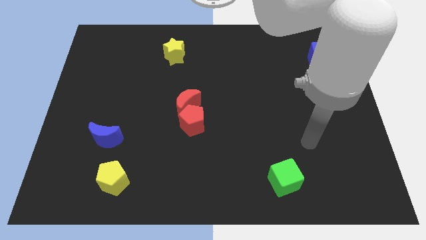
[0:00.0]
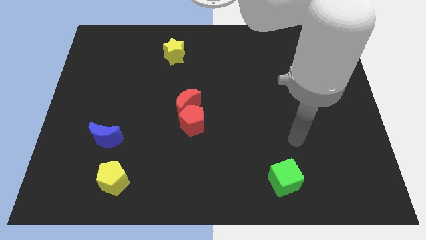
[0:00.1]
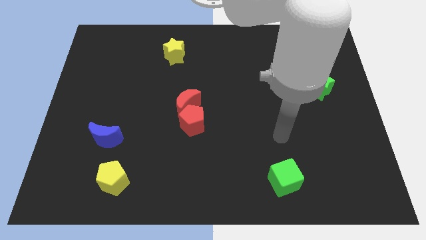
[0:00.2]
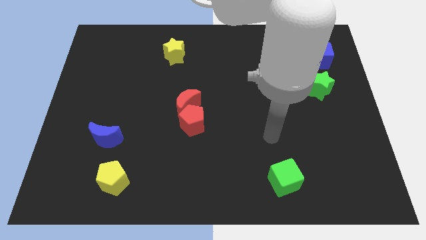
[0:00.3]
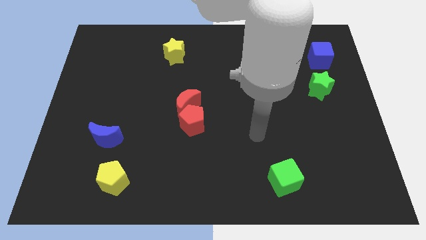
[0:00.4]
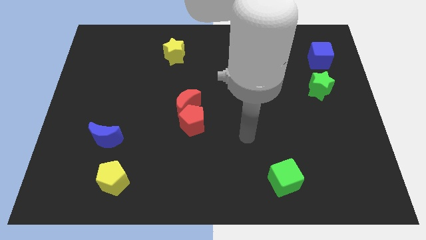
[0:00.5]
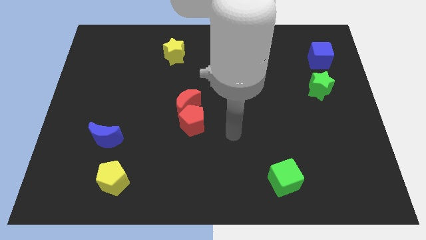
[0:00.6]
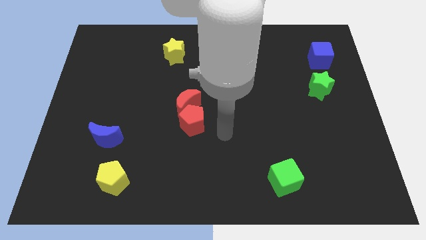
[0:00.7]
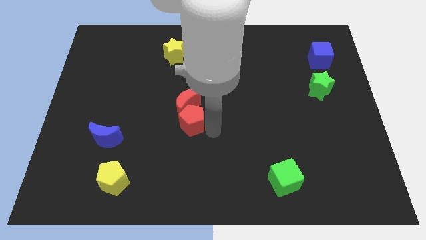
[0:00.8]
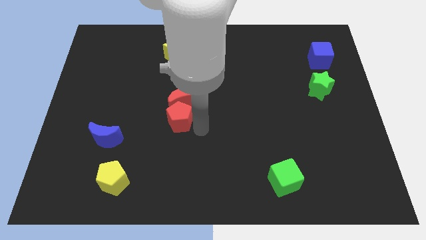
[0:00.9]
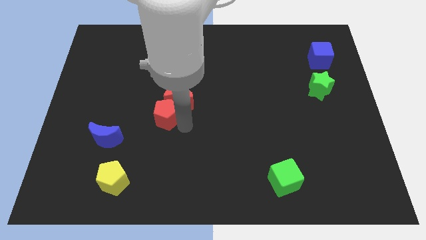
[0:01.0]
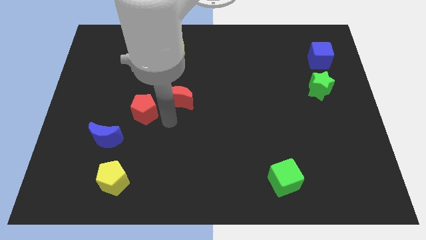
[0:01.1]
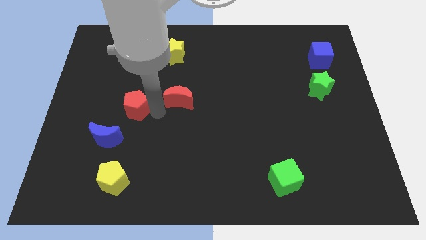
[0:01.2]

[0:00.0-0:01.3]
move the red moon away from the red pentagon

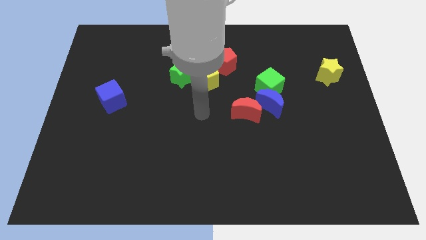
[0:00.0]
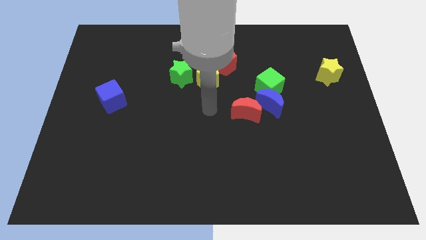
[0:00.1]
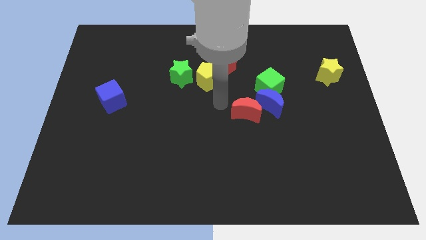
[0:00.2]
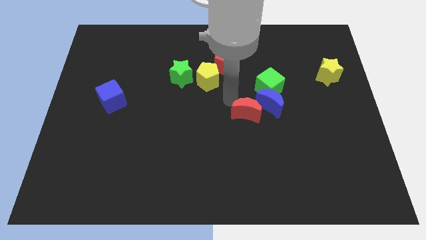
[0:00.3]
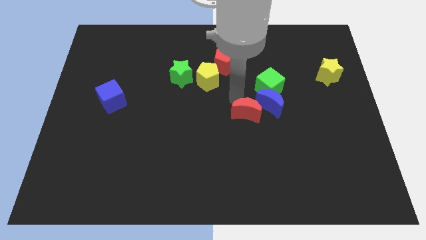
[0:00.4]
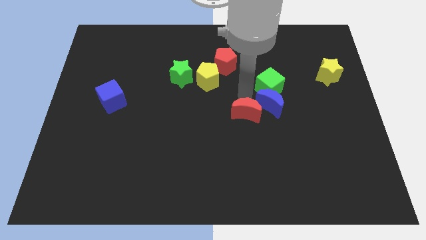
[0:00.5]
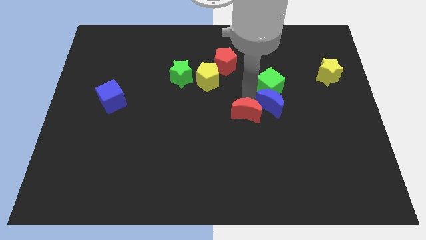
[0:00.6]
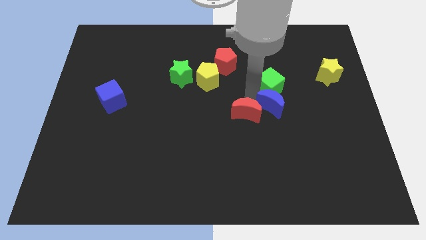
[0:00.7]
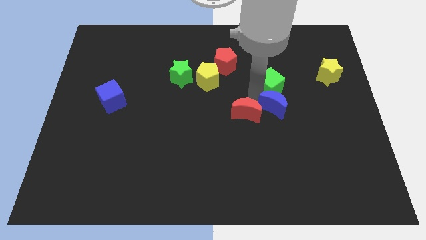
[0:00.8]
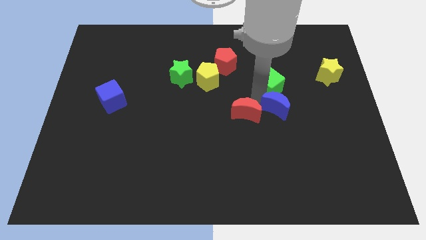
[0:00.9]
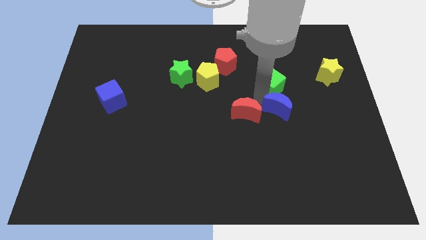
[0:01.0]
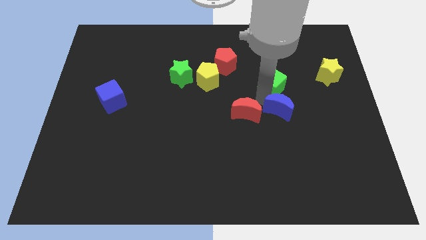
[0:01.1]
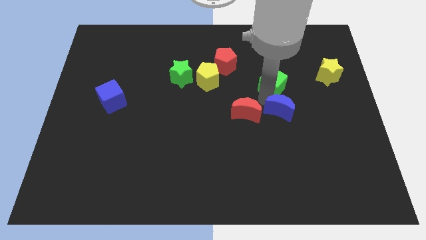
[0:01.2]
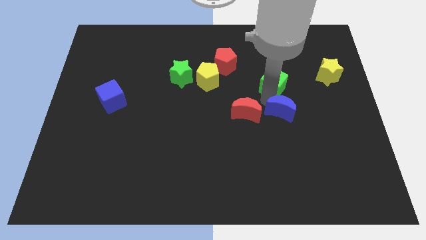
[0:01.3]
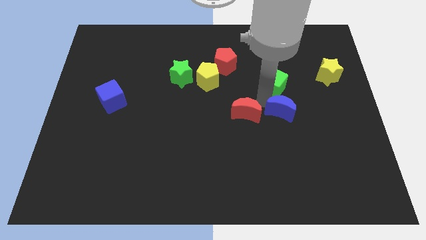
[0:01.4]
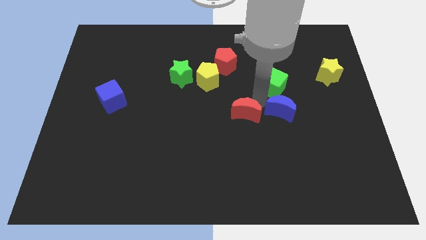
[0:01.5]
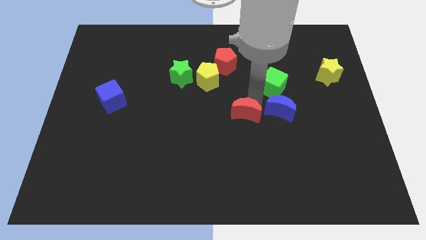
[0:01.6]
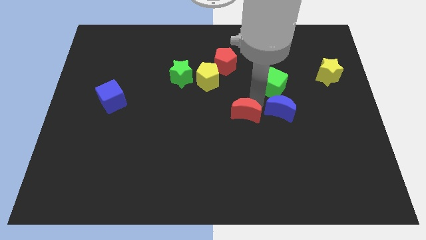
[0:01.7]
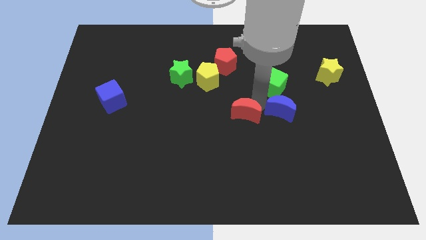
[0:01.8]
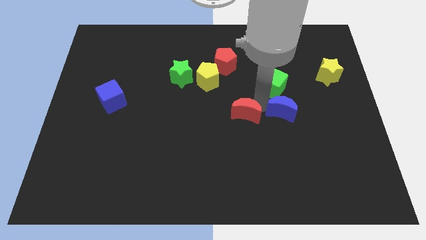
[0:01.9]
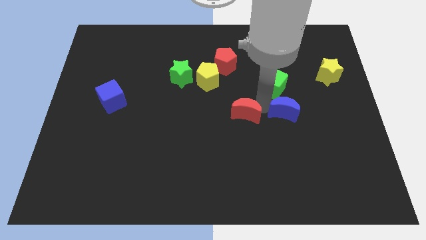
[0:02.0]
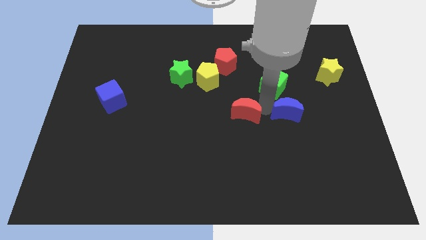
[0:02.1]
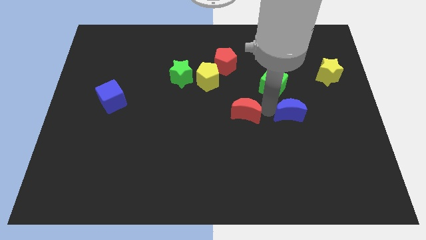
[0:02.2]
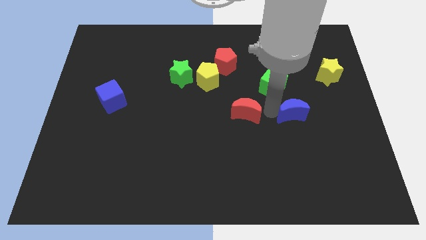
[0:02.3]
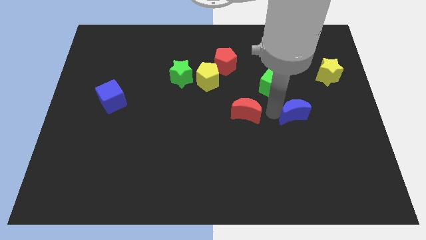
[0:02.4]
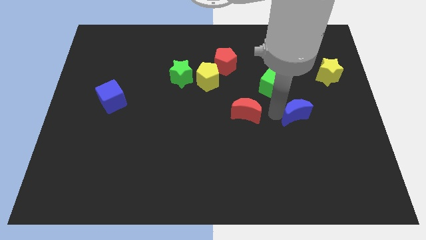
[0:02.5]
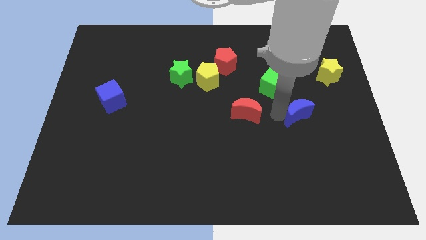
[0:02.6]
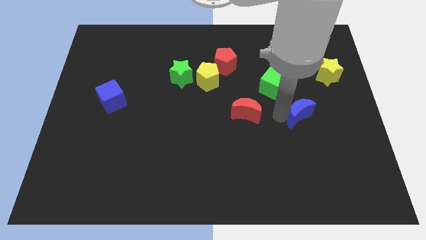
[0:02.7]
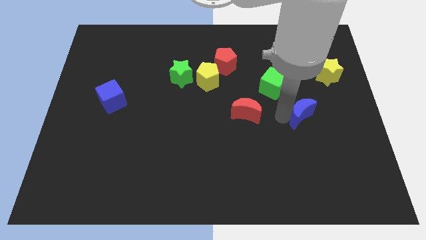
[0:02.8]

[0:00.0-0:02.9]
pull the blue moon apart from the green cube and red moon

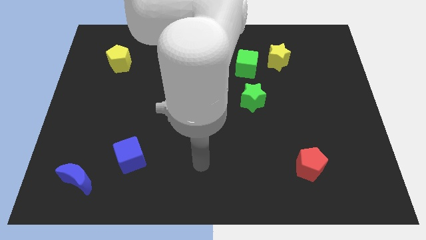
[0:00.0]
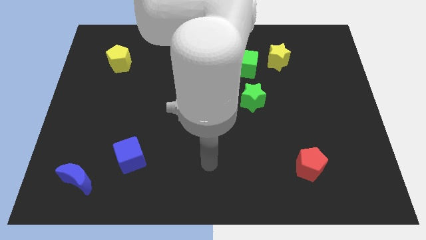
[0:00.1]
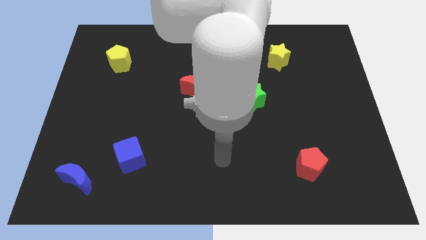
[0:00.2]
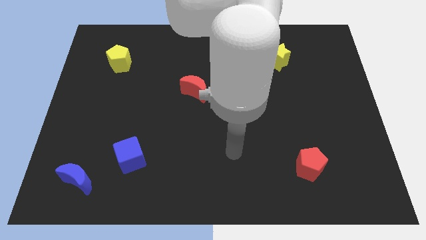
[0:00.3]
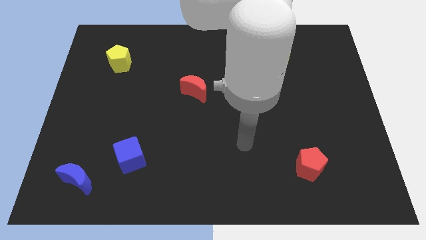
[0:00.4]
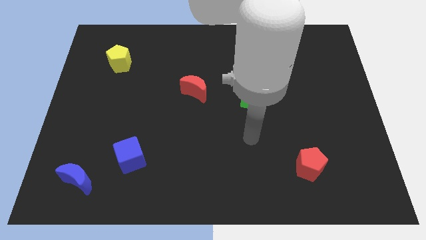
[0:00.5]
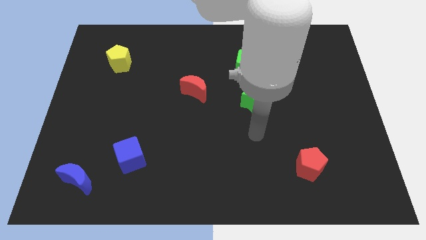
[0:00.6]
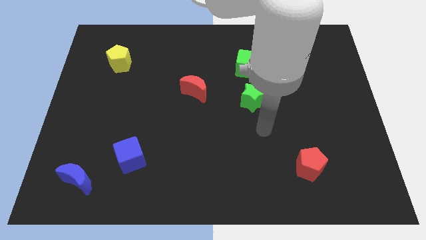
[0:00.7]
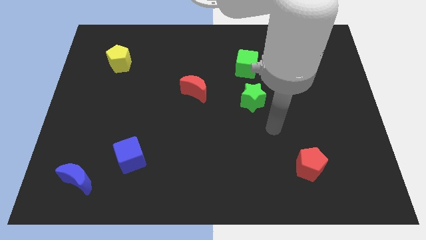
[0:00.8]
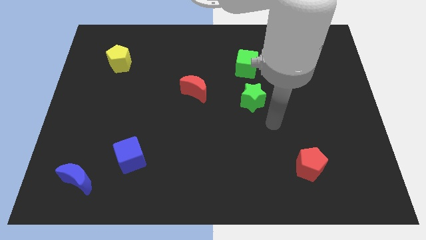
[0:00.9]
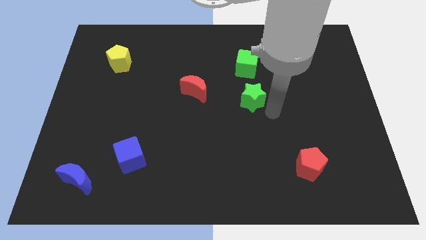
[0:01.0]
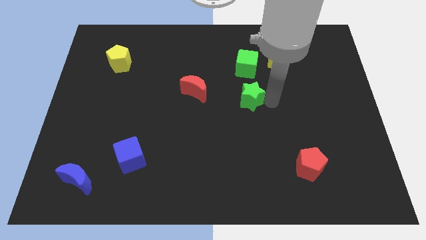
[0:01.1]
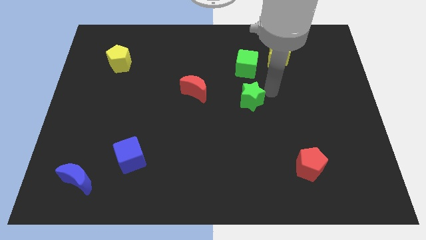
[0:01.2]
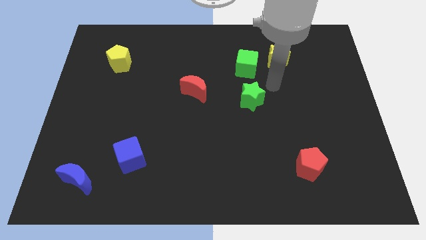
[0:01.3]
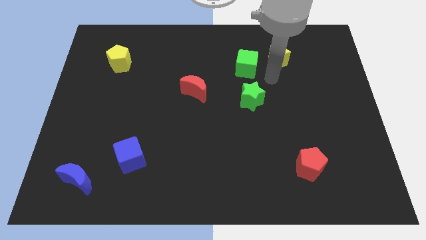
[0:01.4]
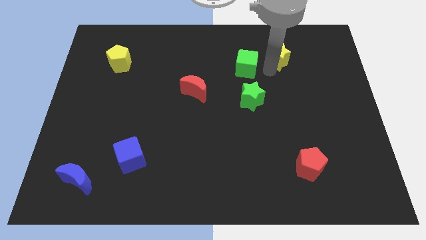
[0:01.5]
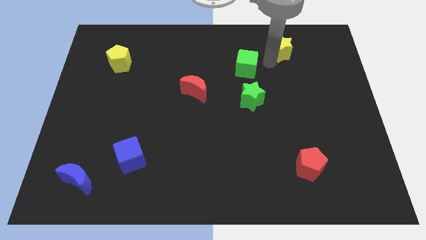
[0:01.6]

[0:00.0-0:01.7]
move the green cube away from the yellow star

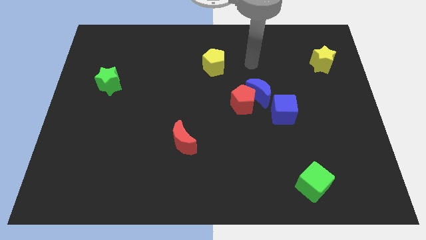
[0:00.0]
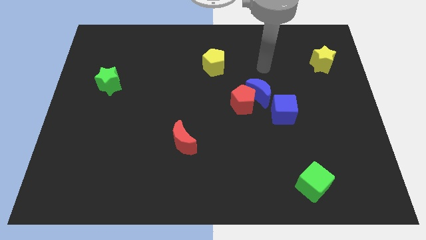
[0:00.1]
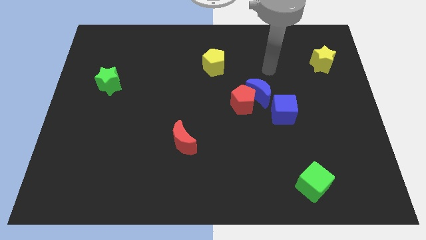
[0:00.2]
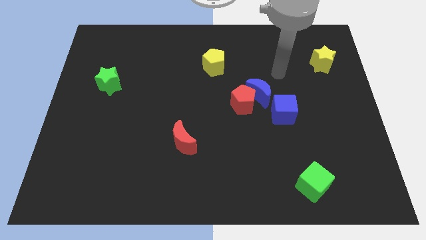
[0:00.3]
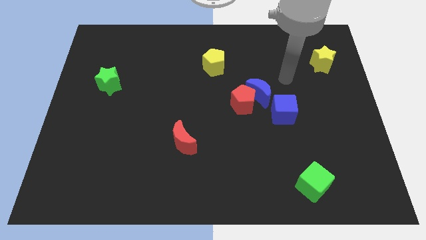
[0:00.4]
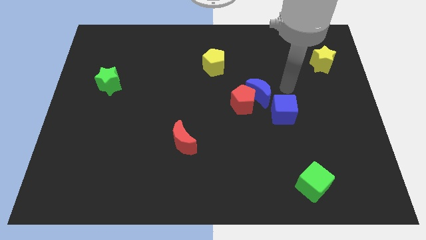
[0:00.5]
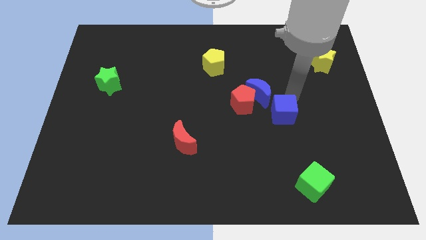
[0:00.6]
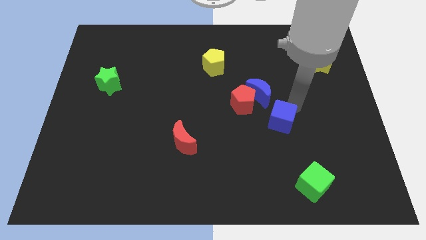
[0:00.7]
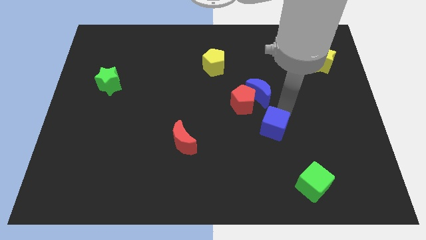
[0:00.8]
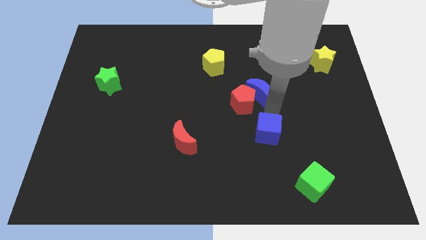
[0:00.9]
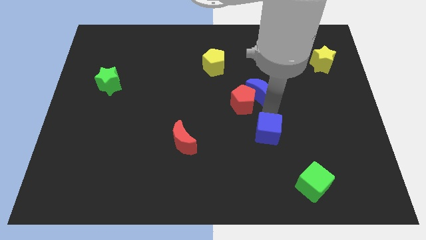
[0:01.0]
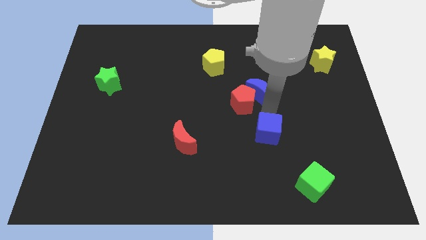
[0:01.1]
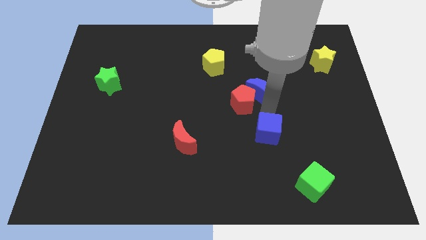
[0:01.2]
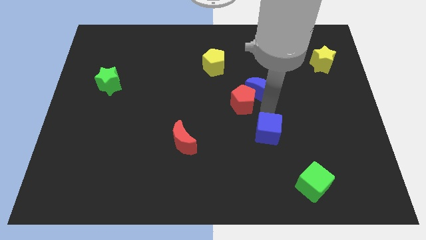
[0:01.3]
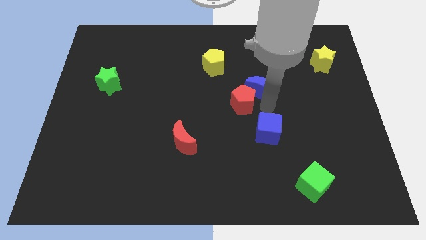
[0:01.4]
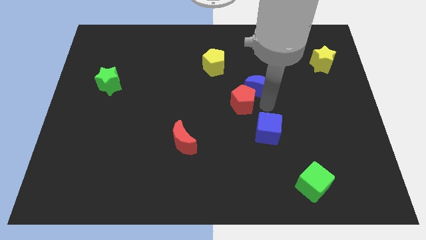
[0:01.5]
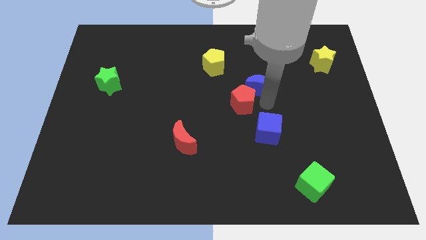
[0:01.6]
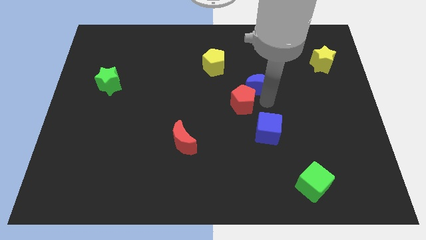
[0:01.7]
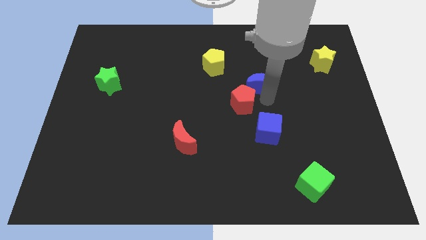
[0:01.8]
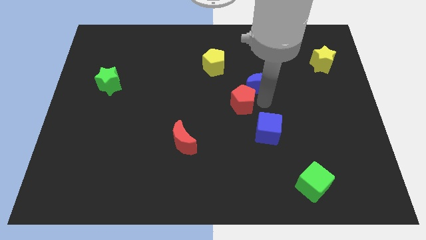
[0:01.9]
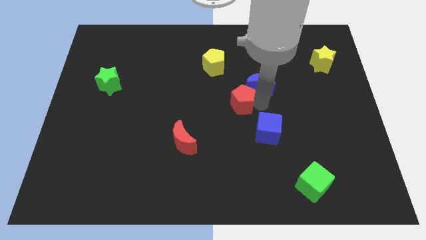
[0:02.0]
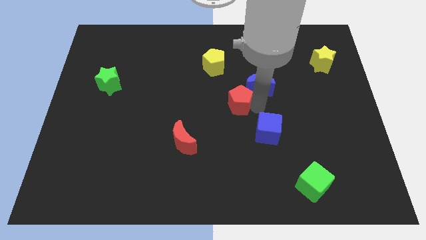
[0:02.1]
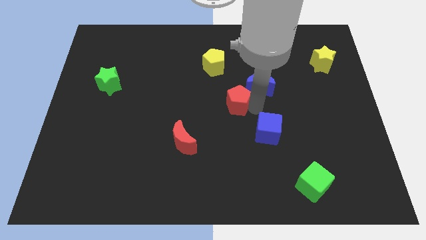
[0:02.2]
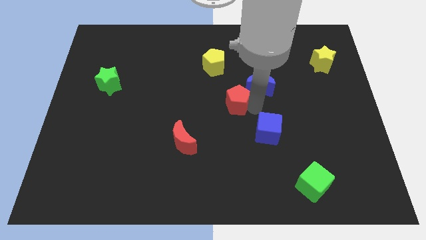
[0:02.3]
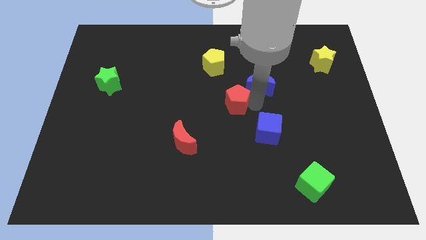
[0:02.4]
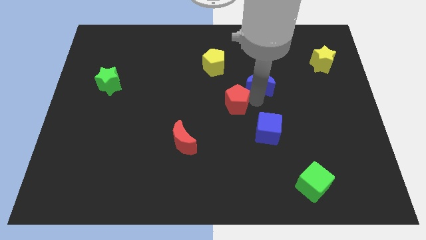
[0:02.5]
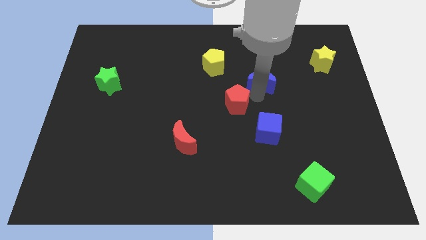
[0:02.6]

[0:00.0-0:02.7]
separate the blue moon from the red pentagon and blue cube

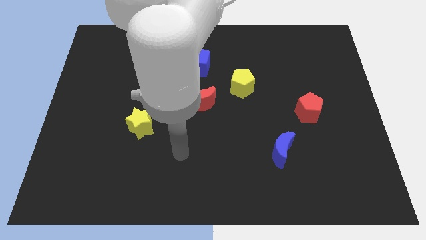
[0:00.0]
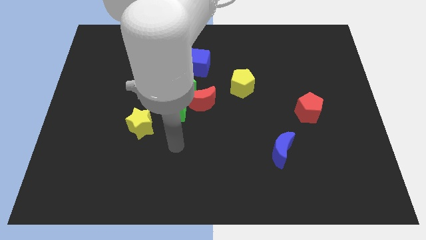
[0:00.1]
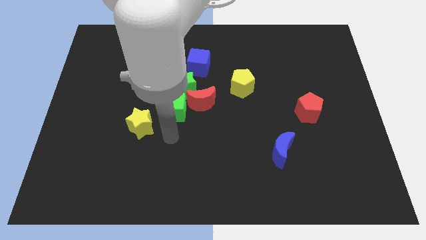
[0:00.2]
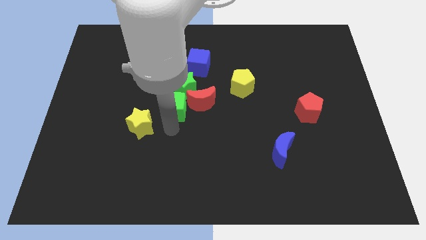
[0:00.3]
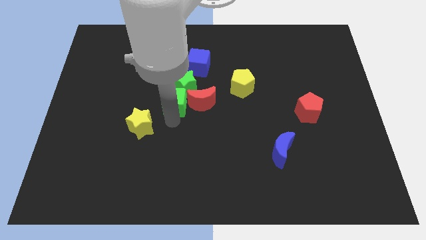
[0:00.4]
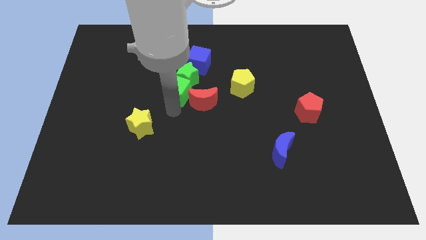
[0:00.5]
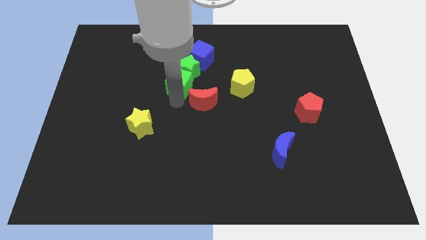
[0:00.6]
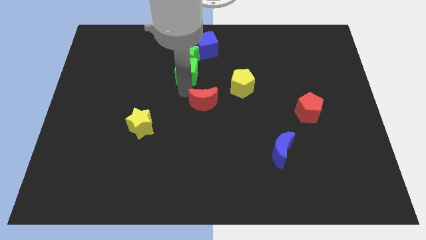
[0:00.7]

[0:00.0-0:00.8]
pull the red moon apart from the green star and green cube
